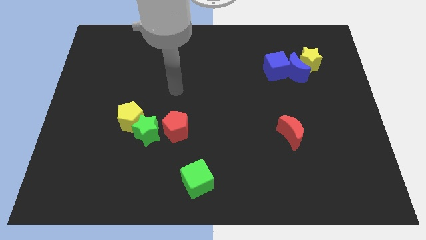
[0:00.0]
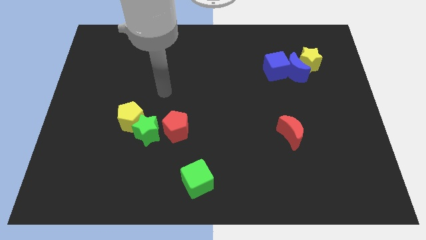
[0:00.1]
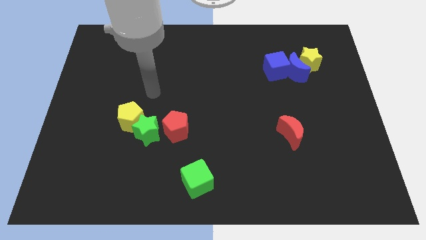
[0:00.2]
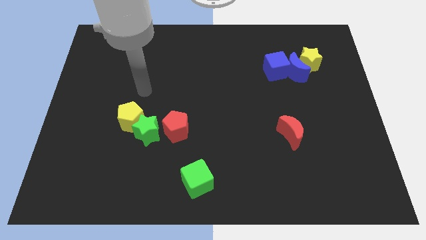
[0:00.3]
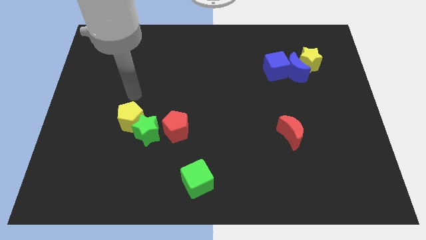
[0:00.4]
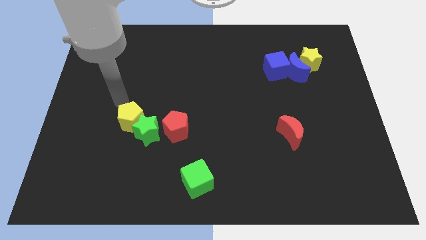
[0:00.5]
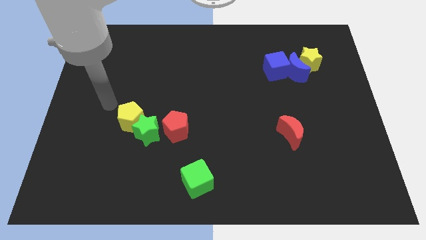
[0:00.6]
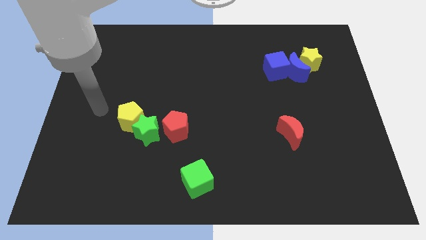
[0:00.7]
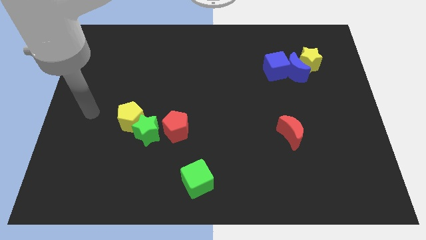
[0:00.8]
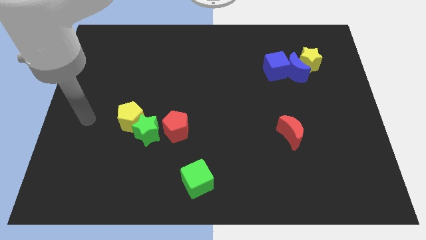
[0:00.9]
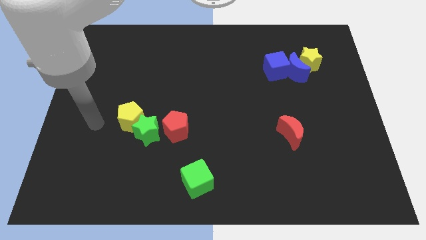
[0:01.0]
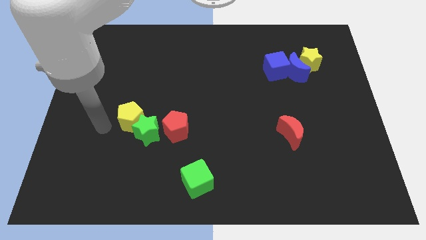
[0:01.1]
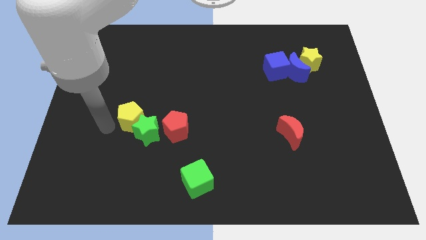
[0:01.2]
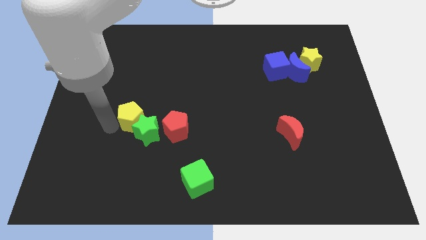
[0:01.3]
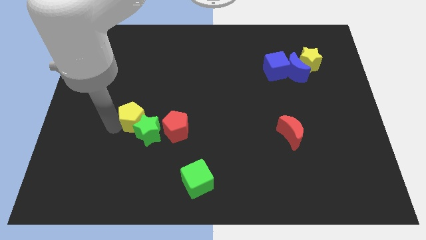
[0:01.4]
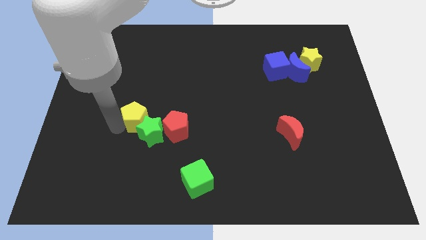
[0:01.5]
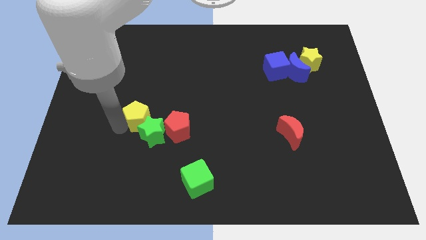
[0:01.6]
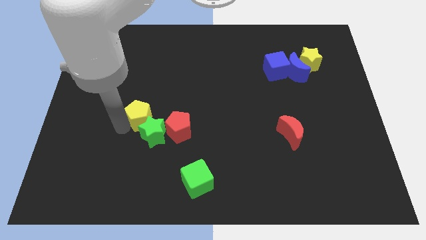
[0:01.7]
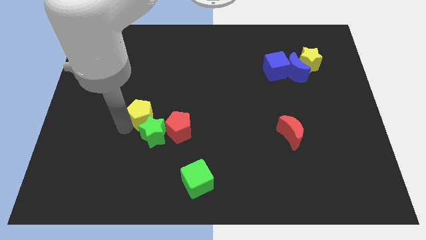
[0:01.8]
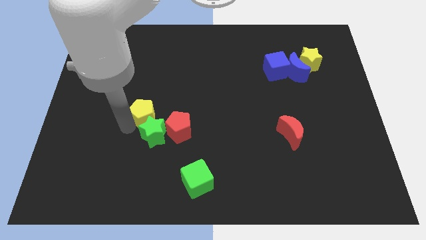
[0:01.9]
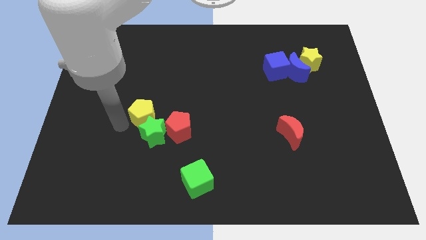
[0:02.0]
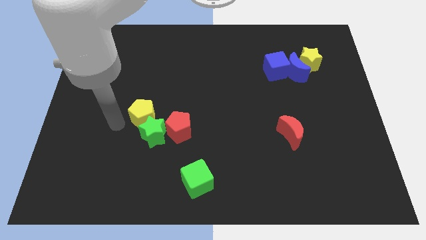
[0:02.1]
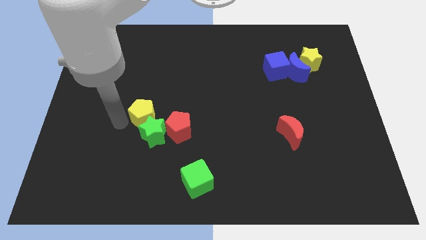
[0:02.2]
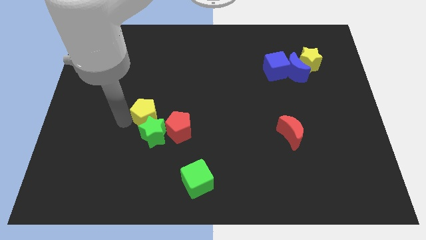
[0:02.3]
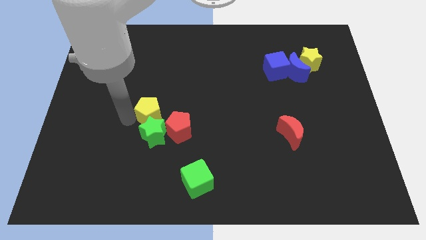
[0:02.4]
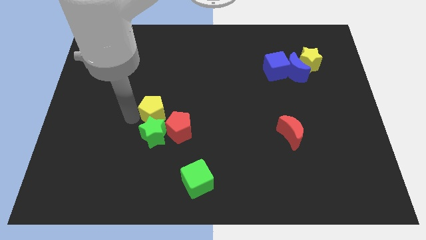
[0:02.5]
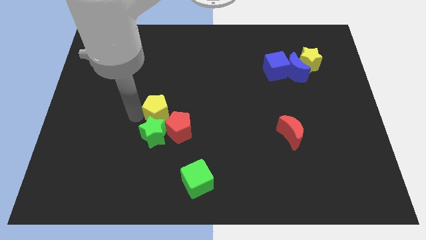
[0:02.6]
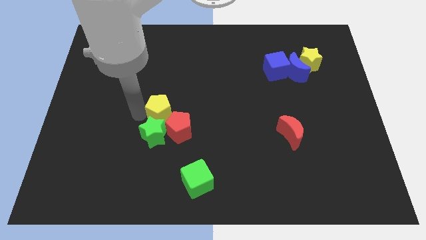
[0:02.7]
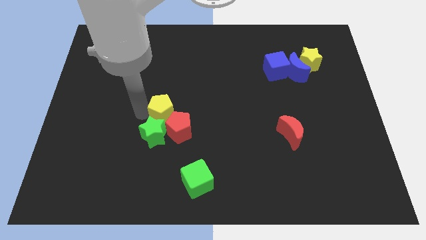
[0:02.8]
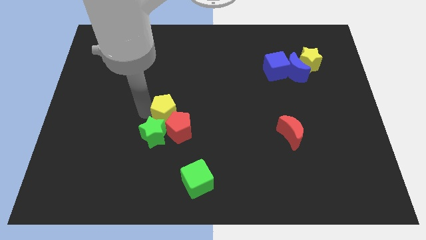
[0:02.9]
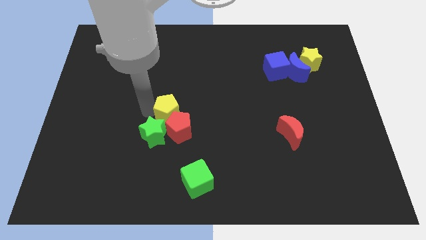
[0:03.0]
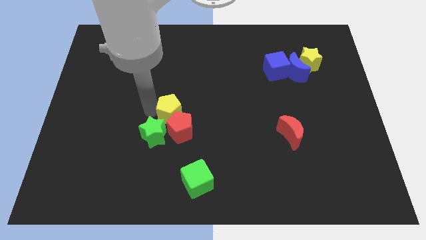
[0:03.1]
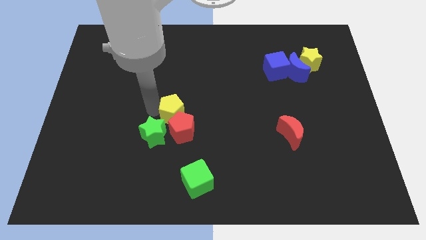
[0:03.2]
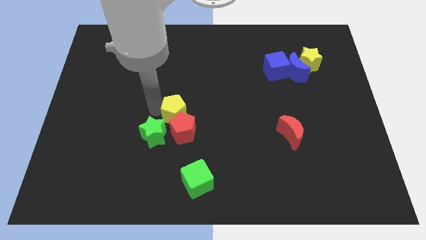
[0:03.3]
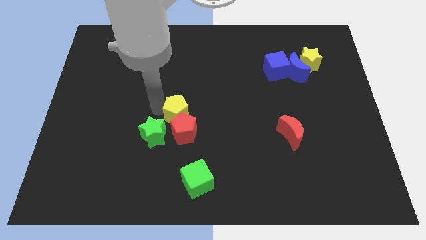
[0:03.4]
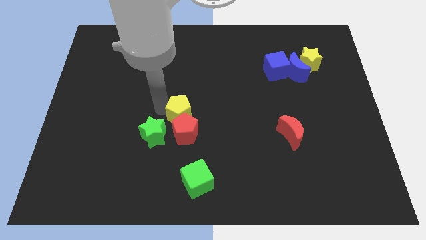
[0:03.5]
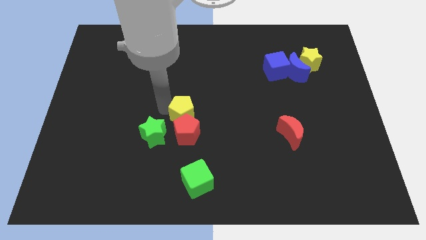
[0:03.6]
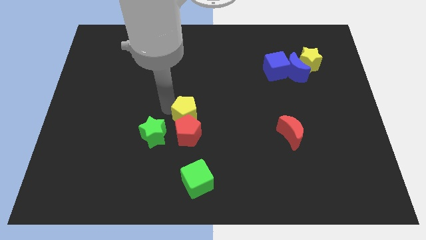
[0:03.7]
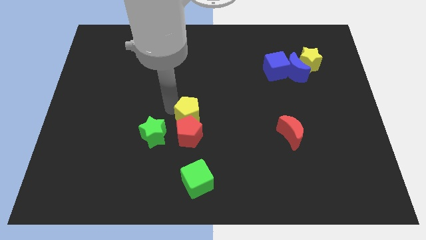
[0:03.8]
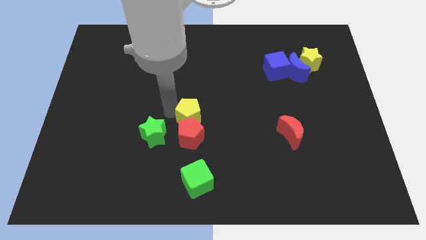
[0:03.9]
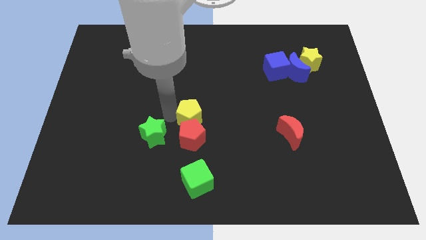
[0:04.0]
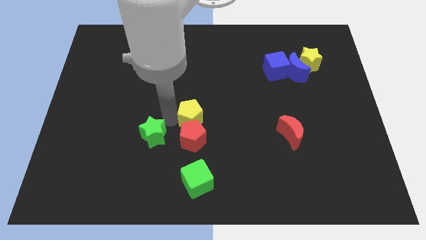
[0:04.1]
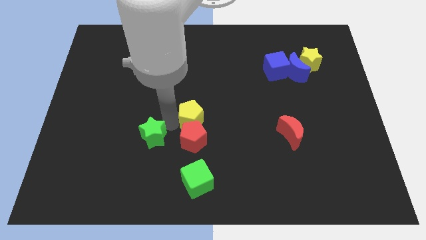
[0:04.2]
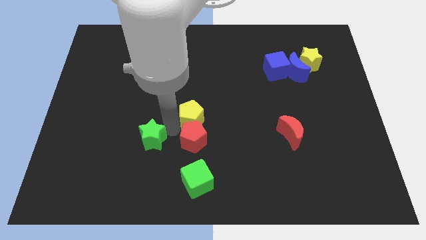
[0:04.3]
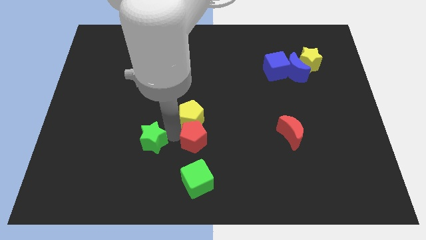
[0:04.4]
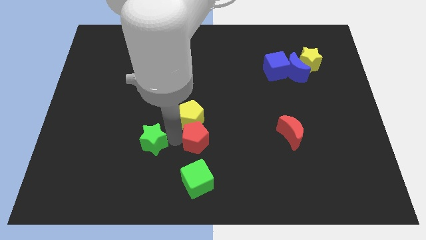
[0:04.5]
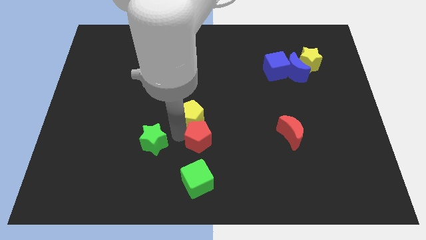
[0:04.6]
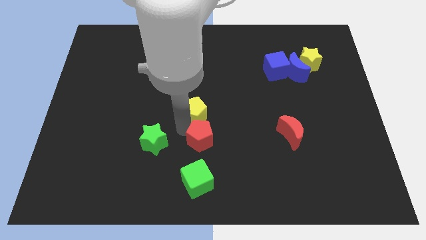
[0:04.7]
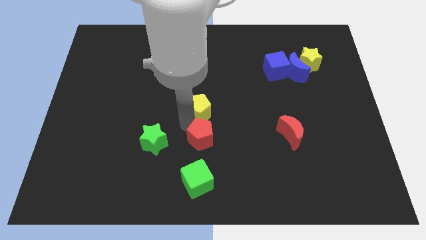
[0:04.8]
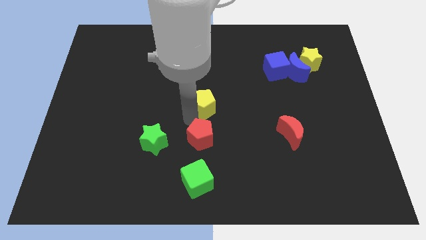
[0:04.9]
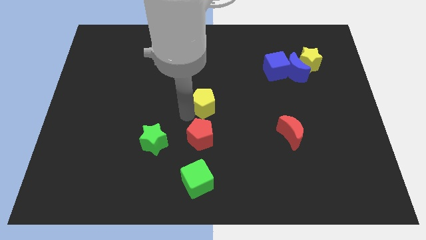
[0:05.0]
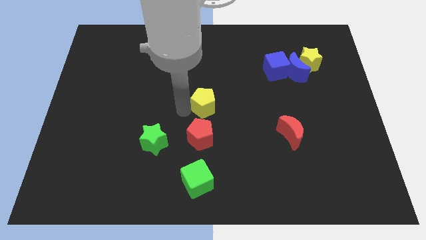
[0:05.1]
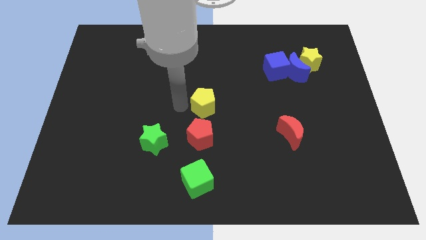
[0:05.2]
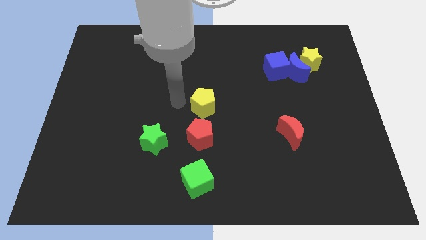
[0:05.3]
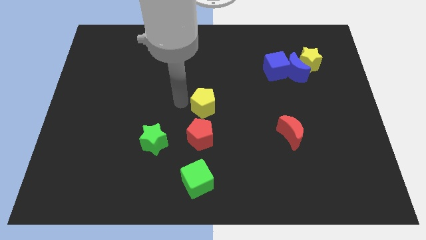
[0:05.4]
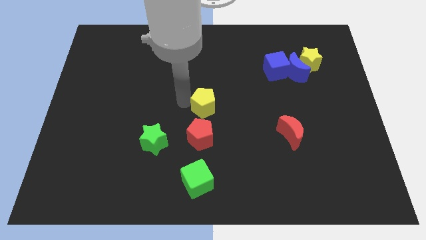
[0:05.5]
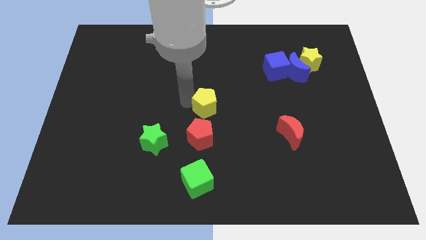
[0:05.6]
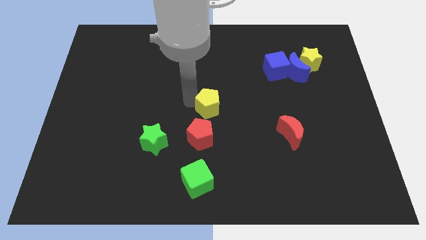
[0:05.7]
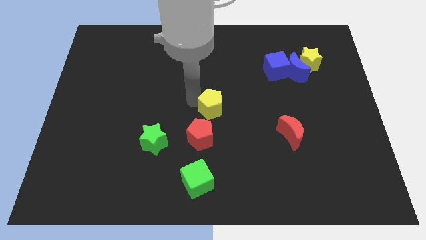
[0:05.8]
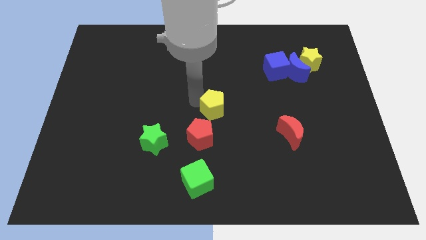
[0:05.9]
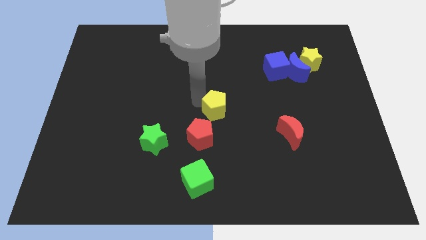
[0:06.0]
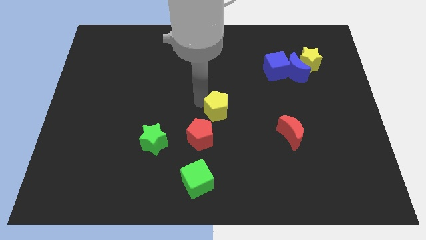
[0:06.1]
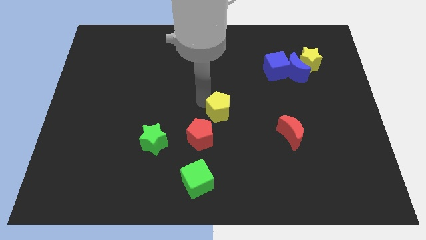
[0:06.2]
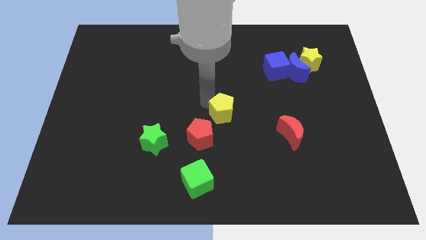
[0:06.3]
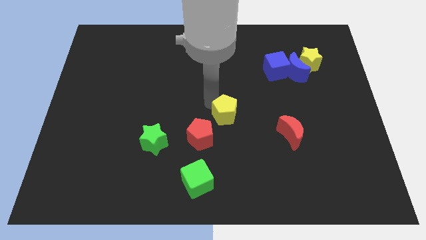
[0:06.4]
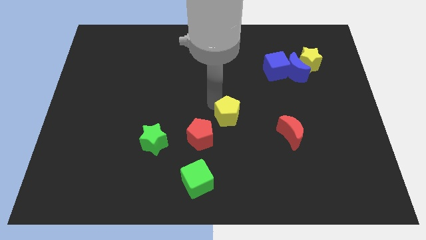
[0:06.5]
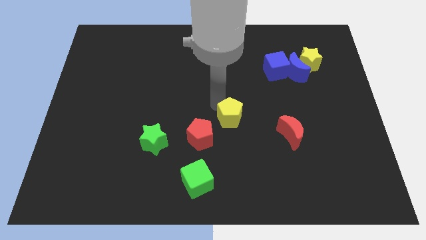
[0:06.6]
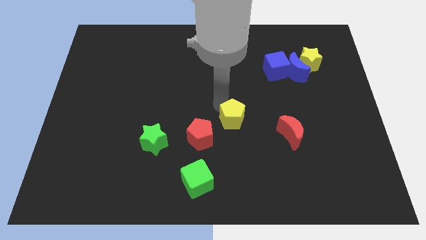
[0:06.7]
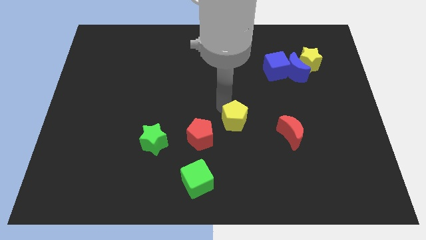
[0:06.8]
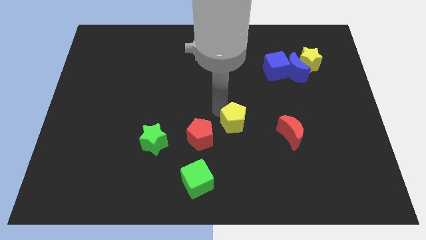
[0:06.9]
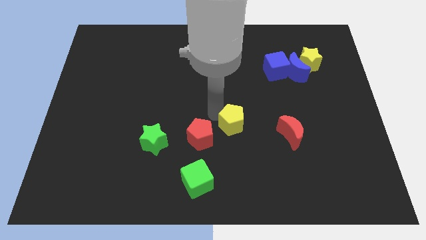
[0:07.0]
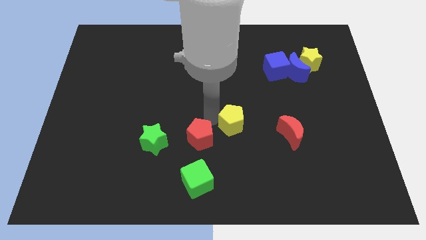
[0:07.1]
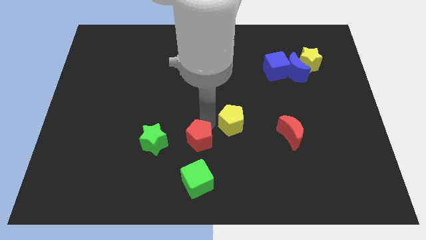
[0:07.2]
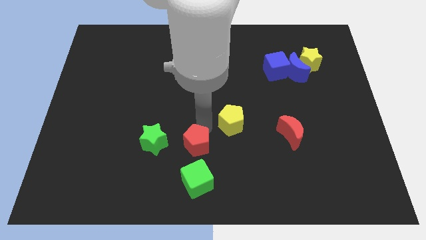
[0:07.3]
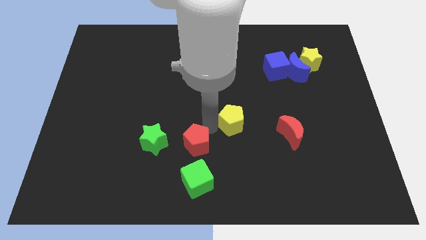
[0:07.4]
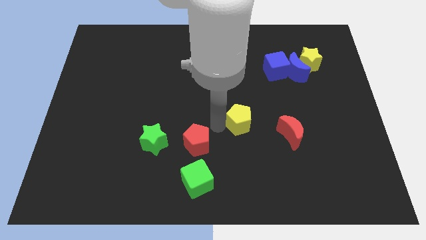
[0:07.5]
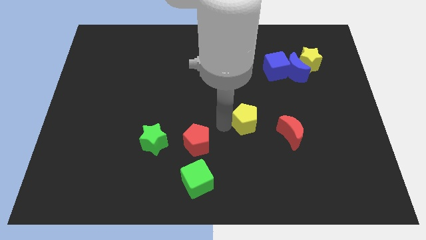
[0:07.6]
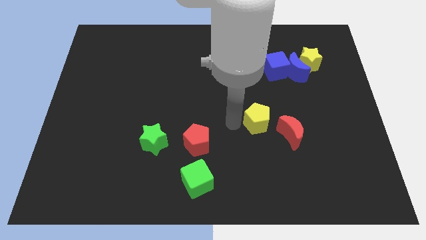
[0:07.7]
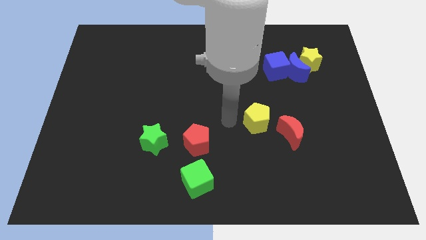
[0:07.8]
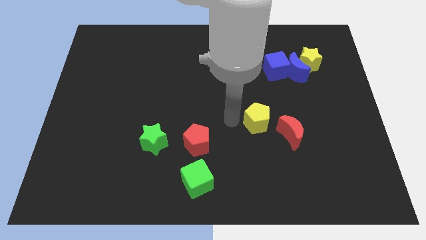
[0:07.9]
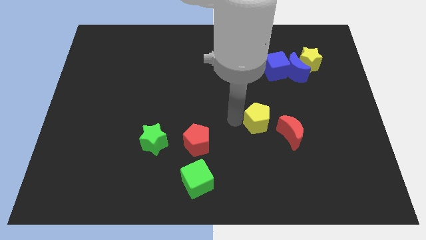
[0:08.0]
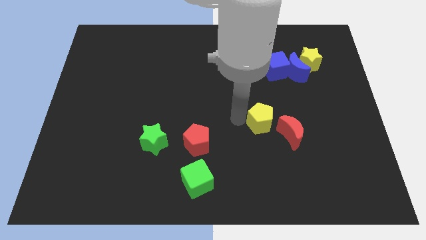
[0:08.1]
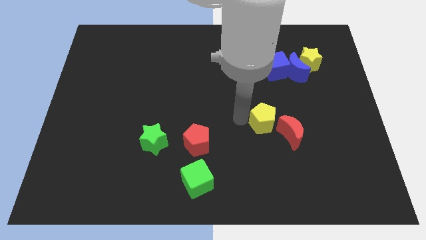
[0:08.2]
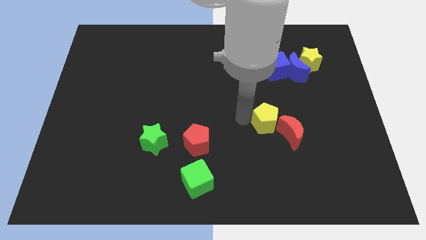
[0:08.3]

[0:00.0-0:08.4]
slide the yellow pentagon close to the red moon
